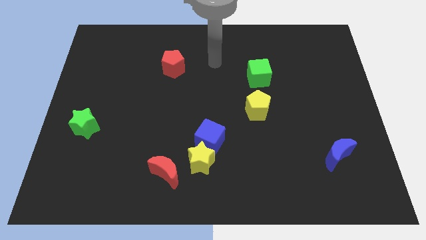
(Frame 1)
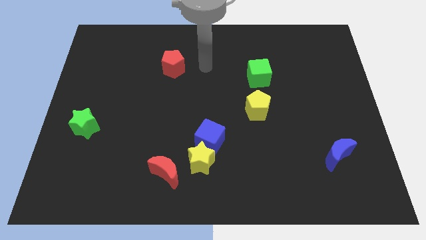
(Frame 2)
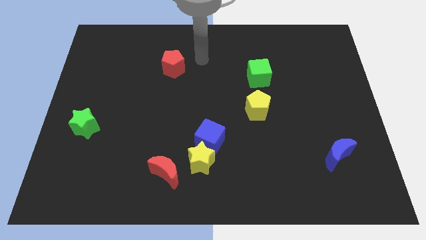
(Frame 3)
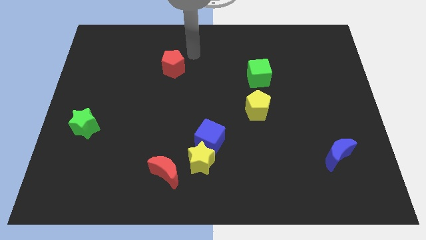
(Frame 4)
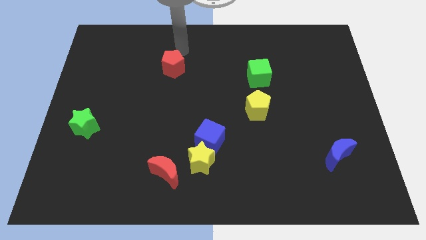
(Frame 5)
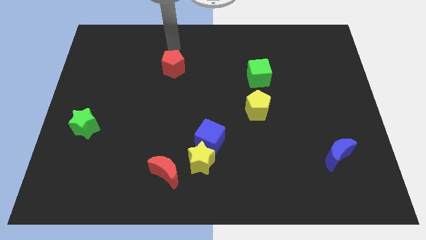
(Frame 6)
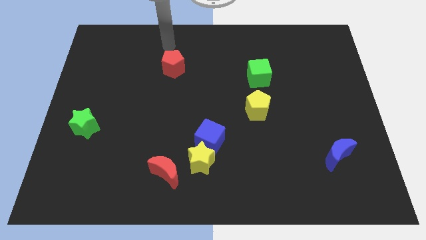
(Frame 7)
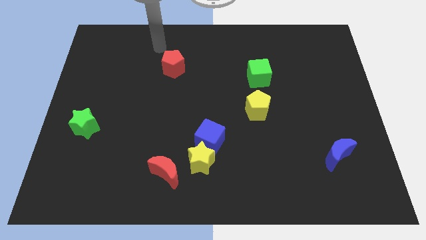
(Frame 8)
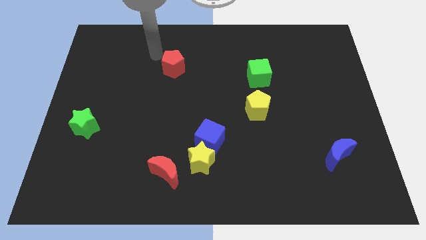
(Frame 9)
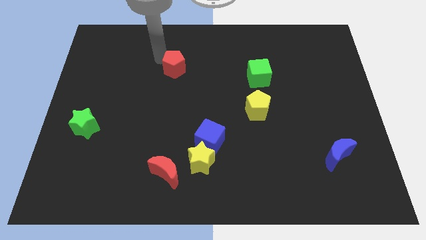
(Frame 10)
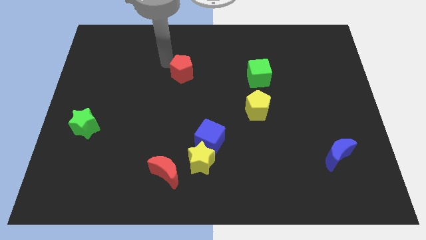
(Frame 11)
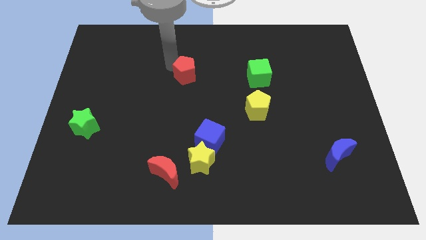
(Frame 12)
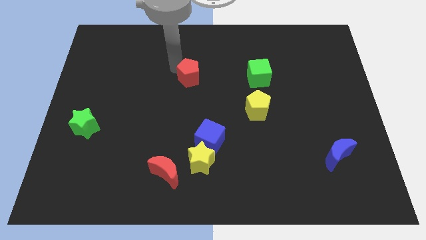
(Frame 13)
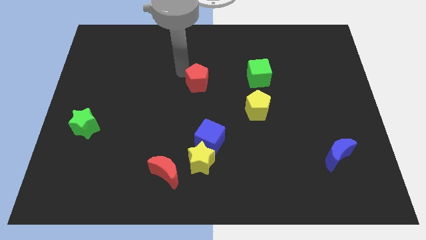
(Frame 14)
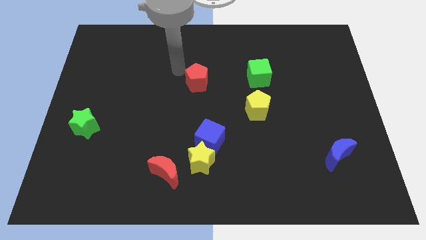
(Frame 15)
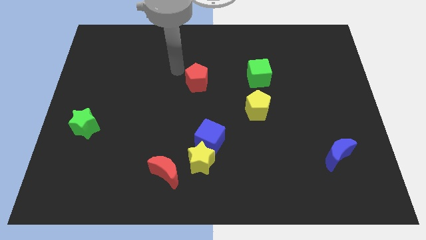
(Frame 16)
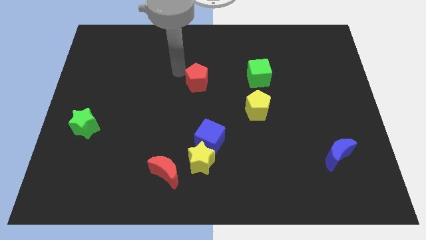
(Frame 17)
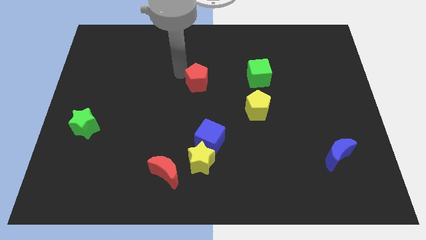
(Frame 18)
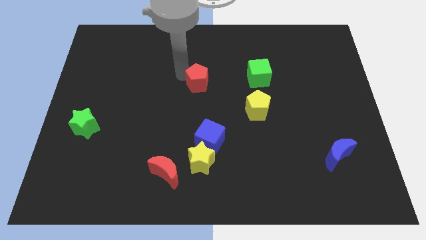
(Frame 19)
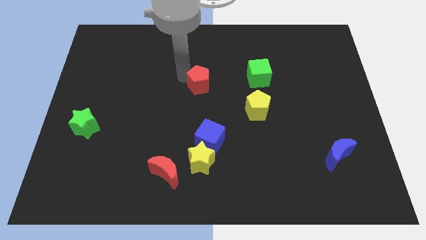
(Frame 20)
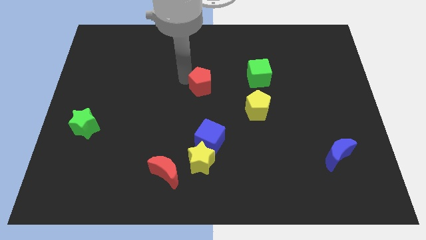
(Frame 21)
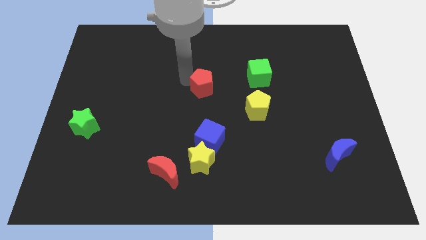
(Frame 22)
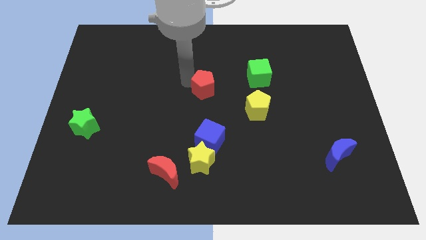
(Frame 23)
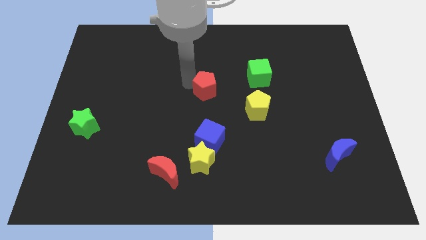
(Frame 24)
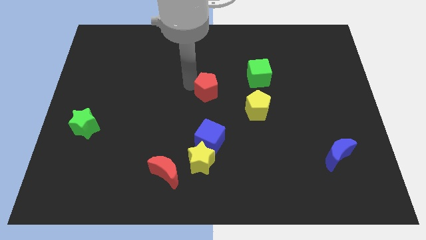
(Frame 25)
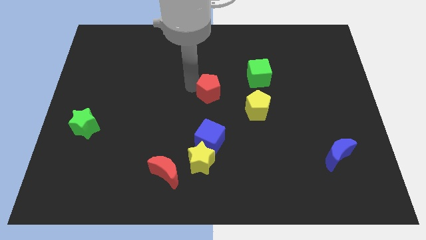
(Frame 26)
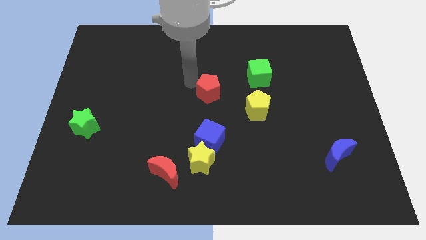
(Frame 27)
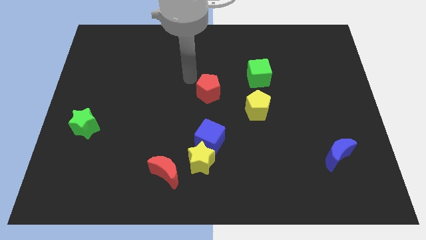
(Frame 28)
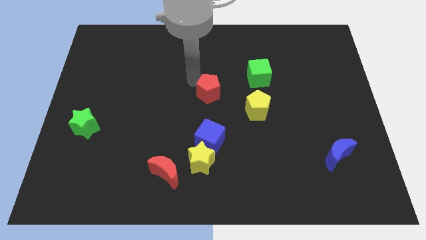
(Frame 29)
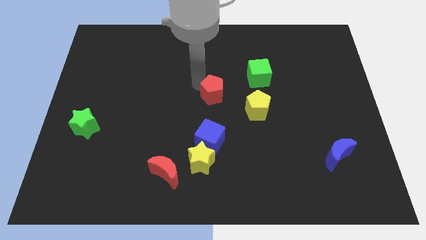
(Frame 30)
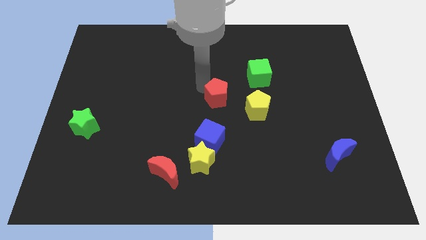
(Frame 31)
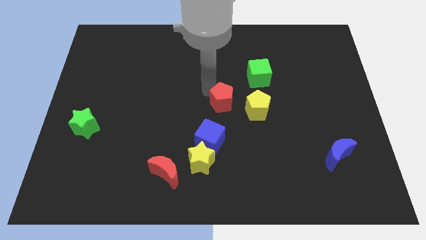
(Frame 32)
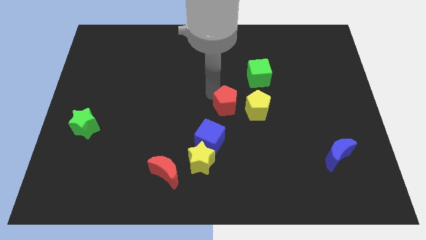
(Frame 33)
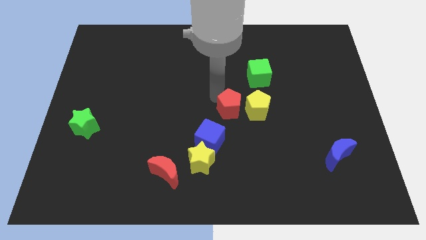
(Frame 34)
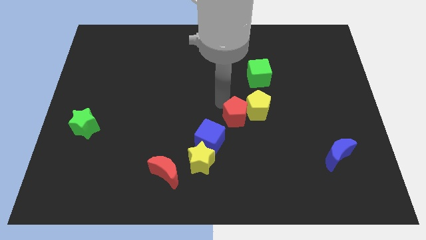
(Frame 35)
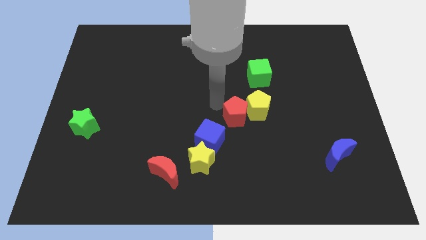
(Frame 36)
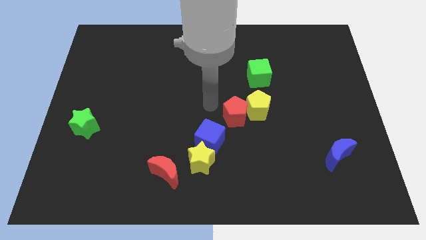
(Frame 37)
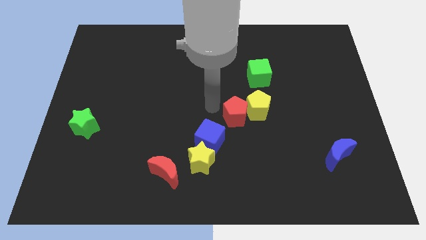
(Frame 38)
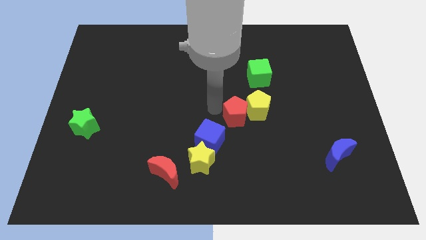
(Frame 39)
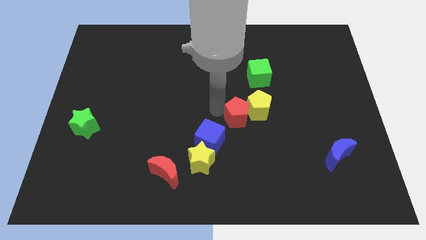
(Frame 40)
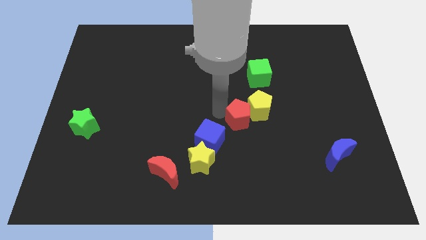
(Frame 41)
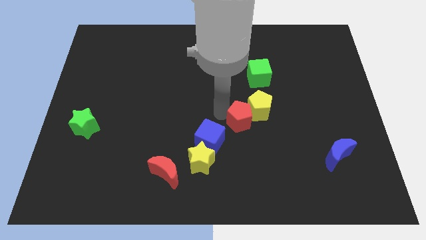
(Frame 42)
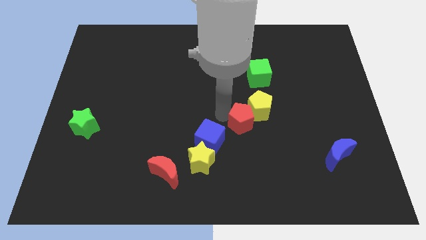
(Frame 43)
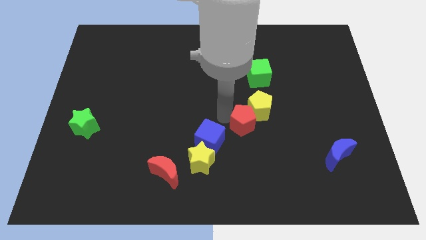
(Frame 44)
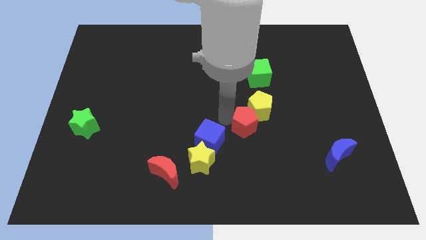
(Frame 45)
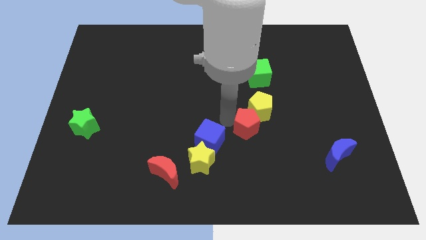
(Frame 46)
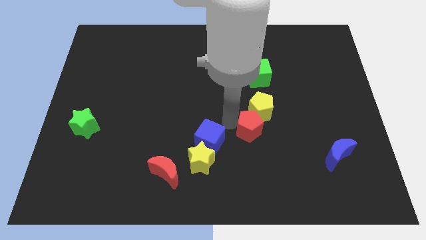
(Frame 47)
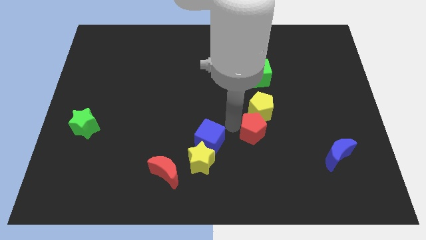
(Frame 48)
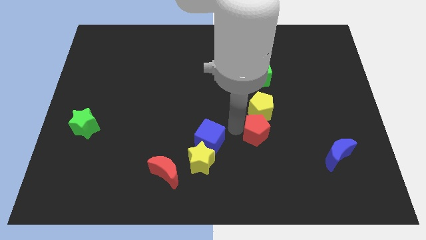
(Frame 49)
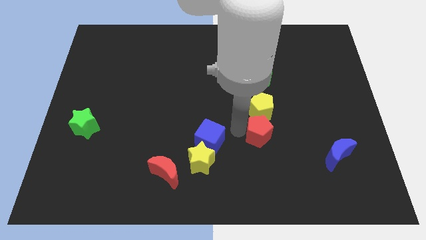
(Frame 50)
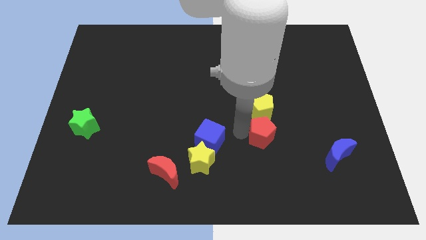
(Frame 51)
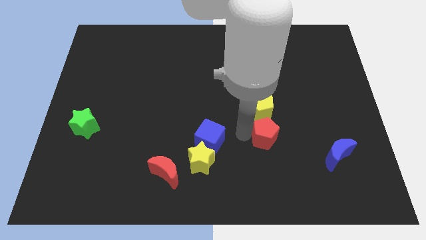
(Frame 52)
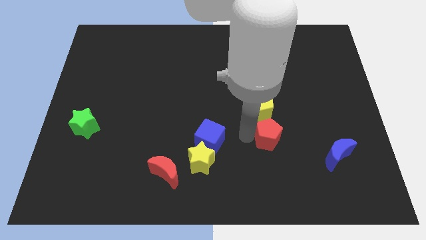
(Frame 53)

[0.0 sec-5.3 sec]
push the red pentagon to the bottom right side of the yellow pentagon

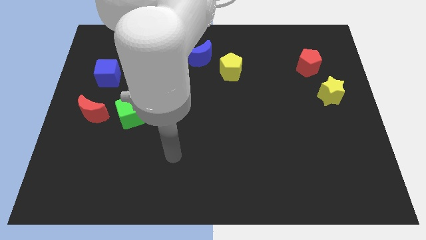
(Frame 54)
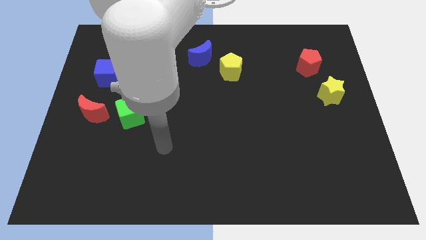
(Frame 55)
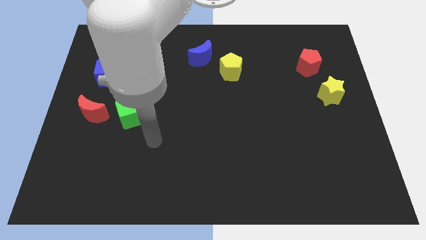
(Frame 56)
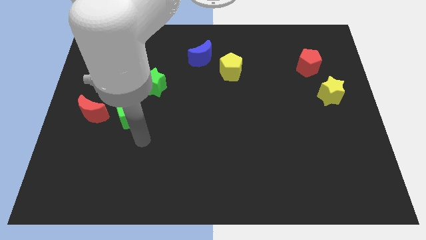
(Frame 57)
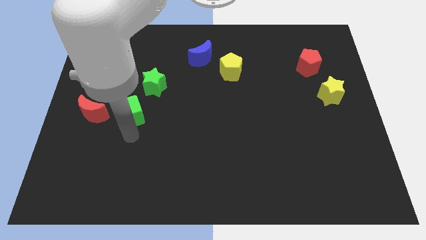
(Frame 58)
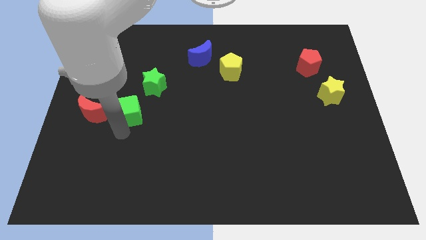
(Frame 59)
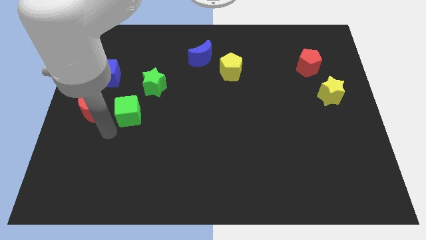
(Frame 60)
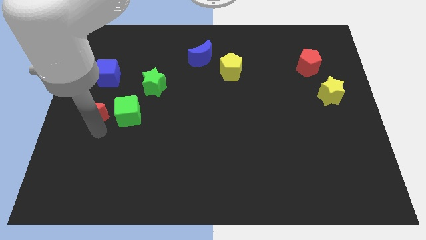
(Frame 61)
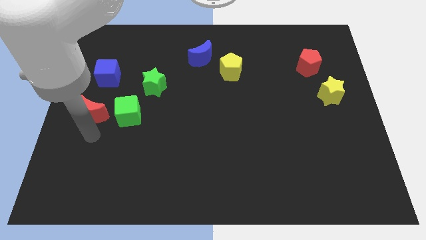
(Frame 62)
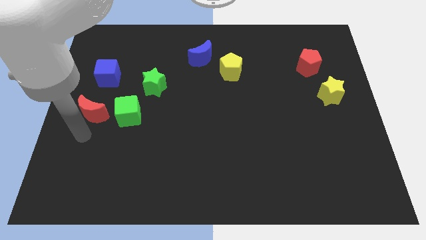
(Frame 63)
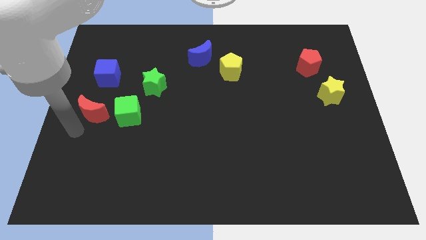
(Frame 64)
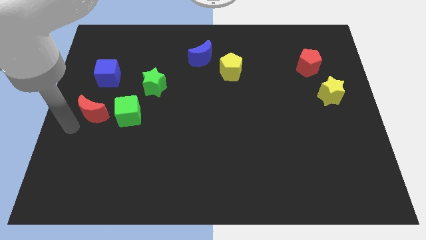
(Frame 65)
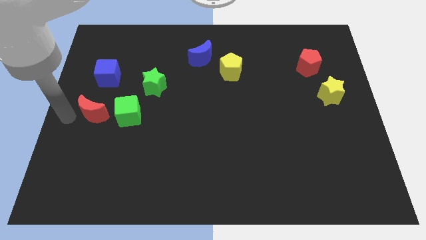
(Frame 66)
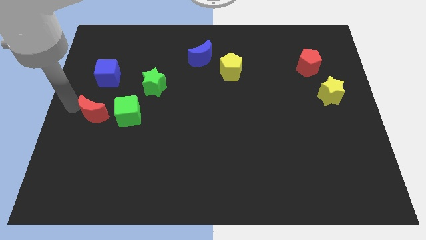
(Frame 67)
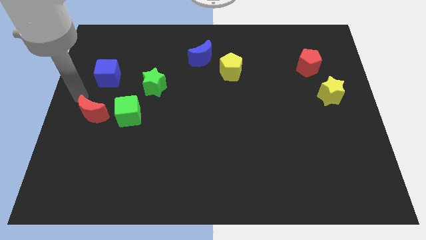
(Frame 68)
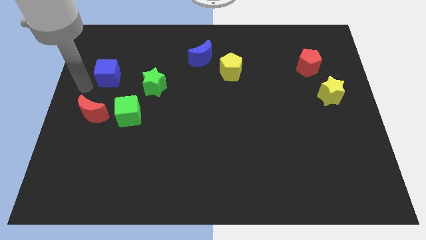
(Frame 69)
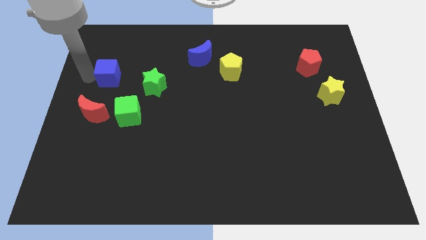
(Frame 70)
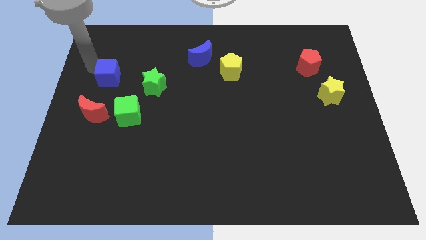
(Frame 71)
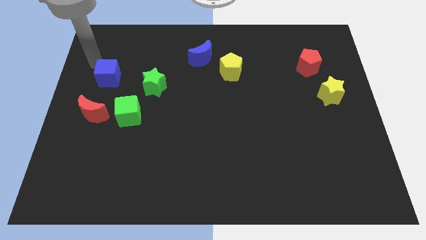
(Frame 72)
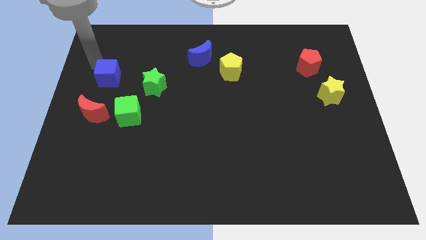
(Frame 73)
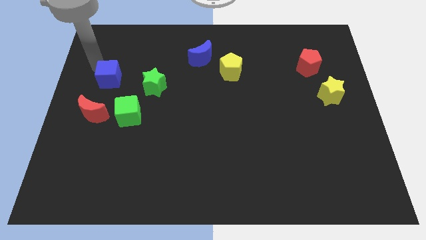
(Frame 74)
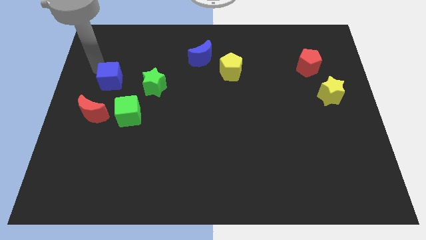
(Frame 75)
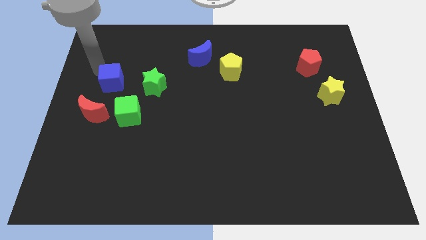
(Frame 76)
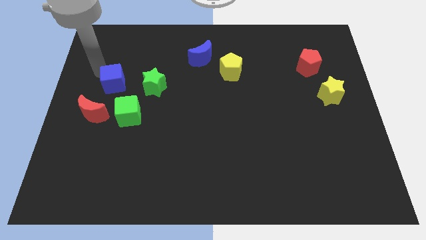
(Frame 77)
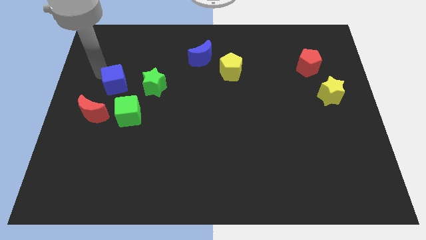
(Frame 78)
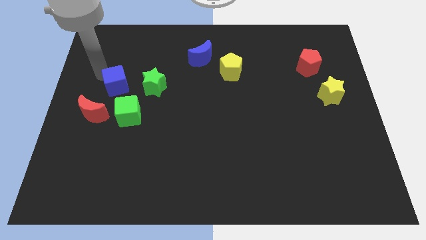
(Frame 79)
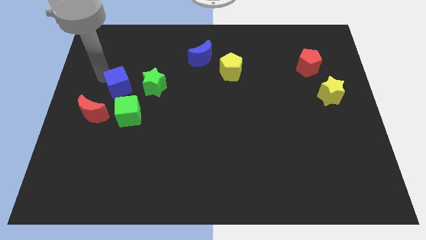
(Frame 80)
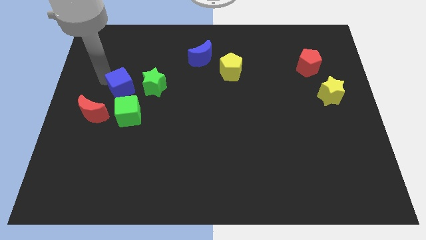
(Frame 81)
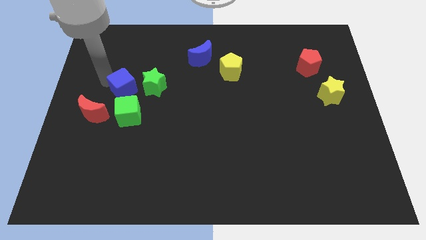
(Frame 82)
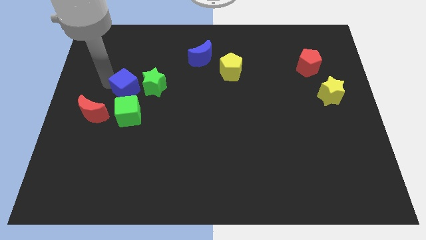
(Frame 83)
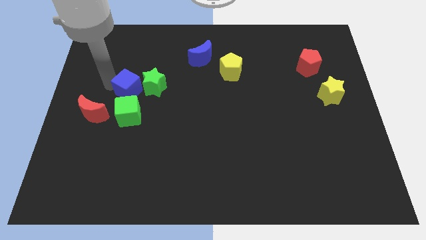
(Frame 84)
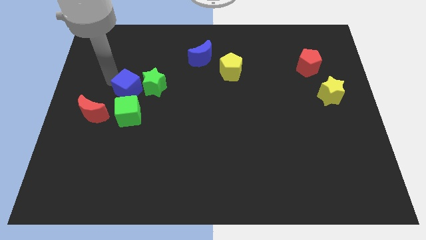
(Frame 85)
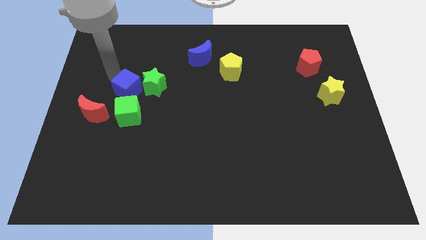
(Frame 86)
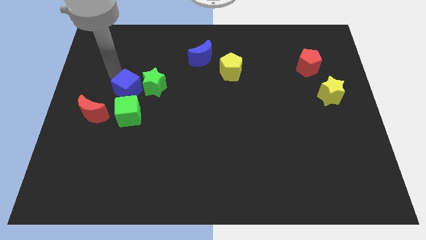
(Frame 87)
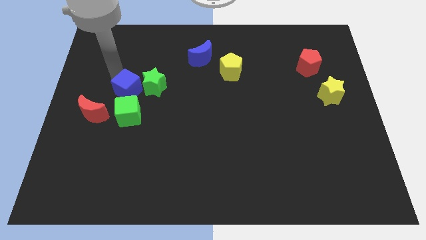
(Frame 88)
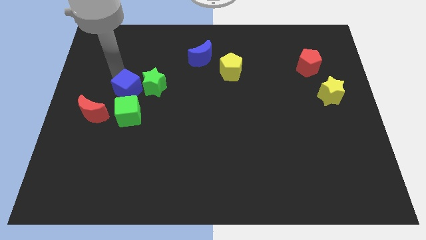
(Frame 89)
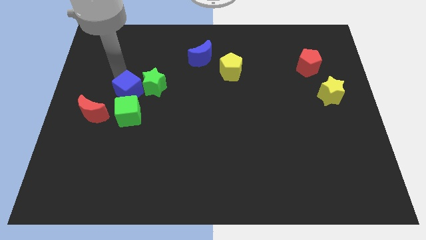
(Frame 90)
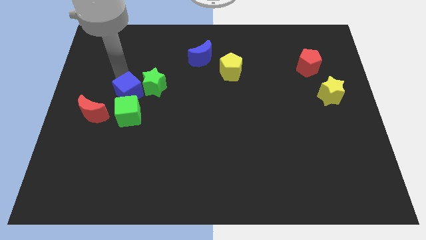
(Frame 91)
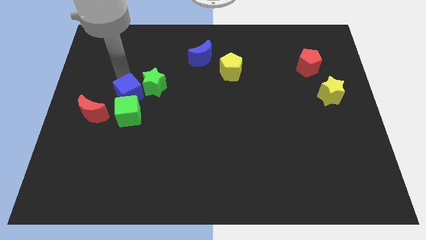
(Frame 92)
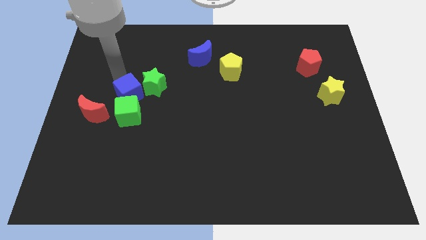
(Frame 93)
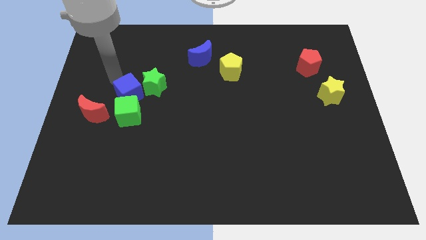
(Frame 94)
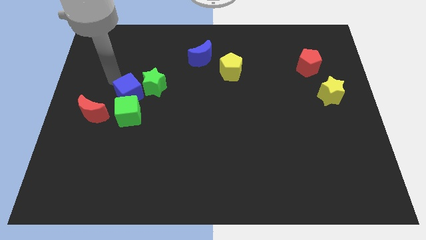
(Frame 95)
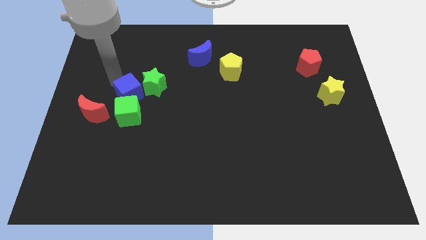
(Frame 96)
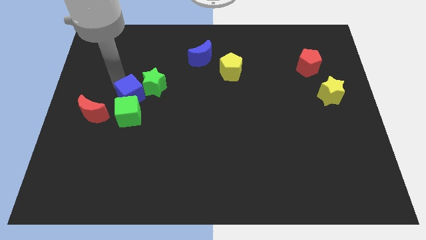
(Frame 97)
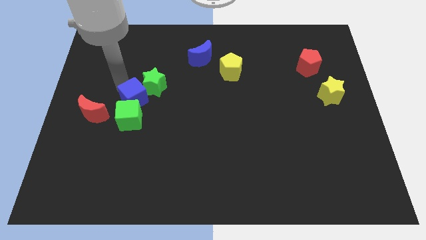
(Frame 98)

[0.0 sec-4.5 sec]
put the blue cube below the green star
